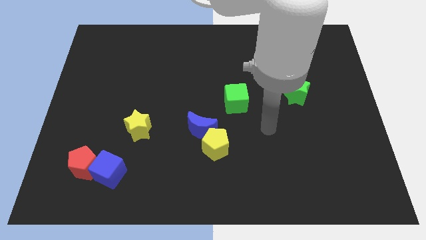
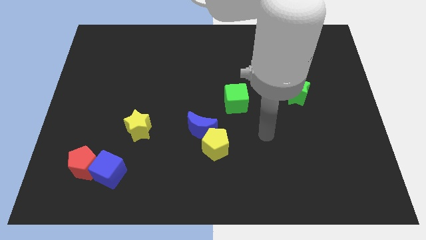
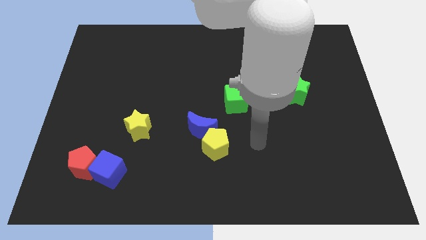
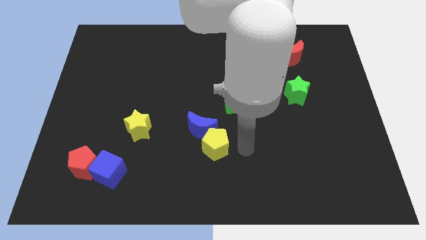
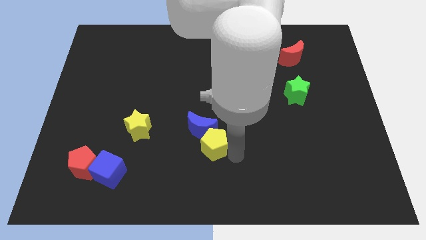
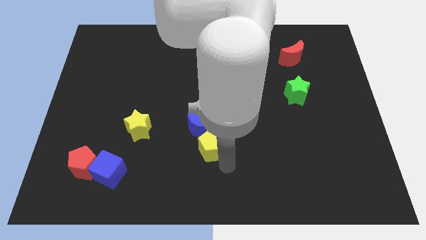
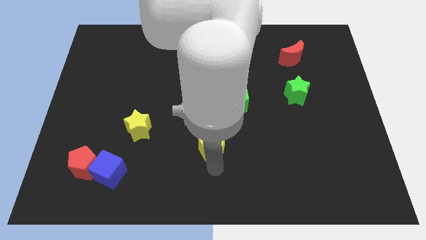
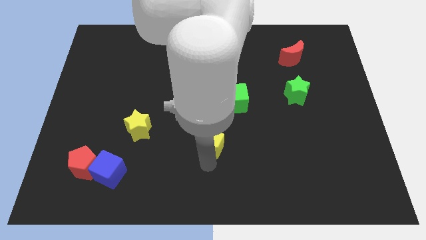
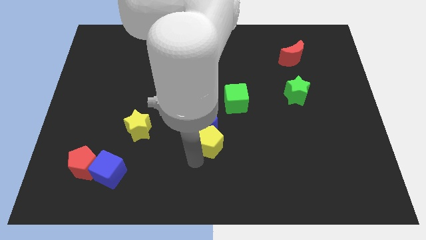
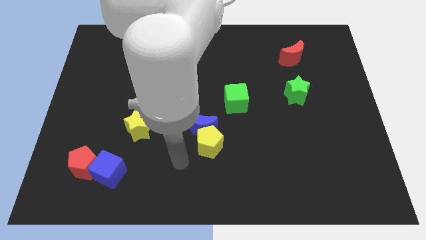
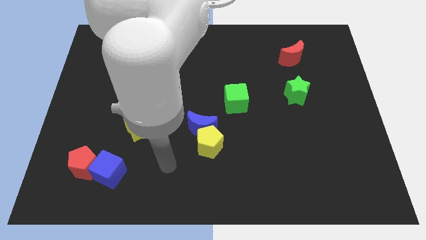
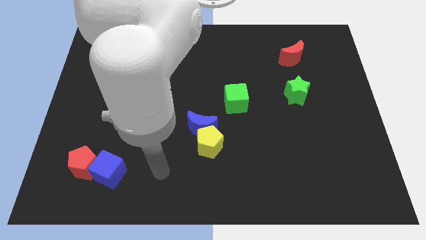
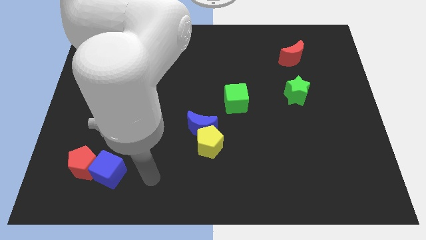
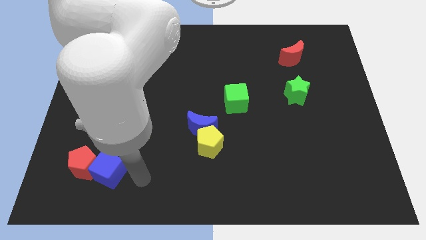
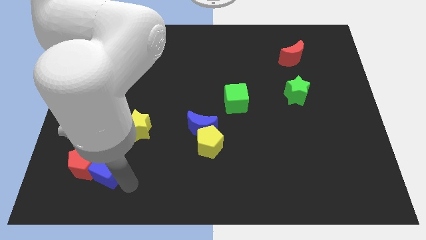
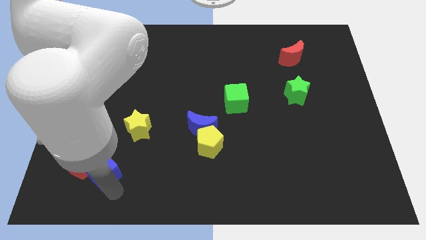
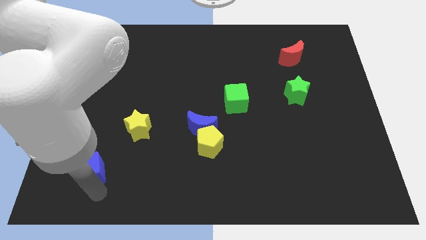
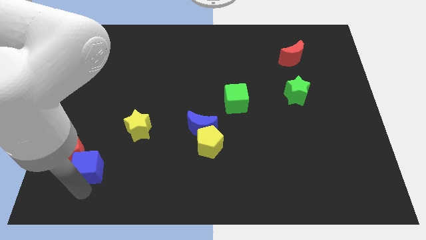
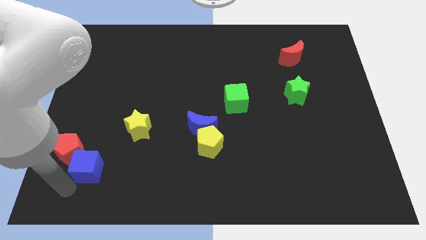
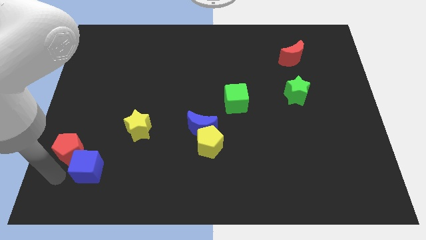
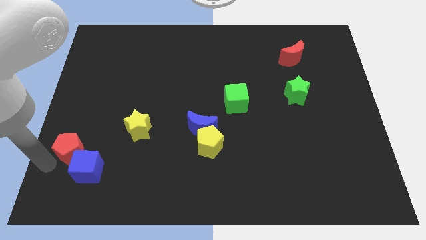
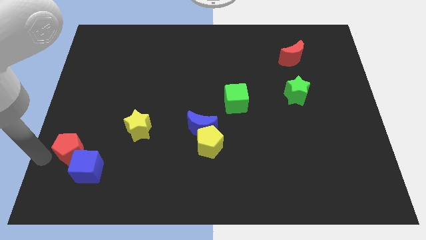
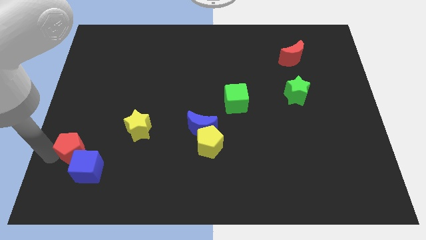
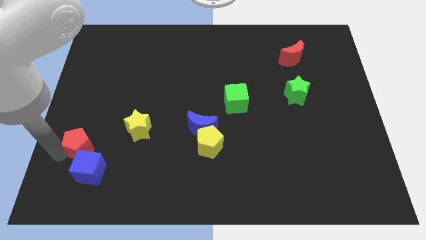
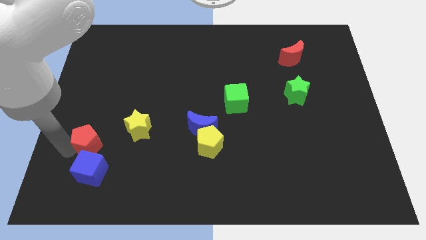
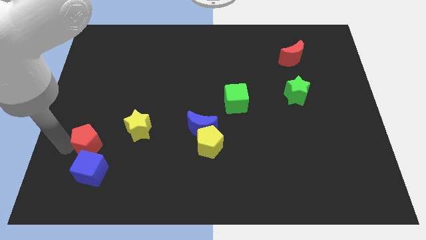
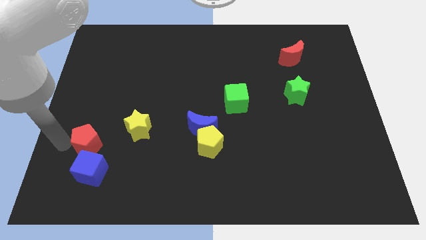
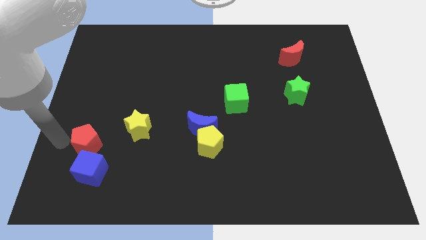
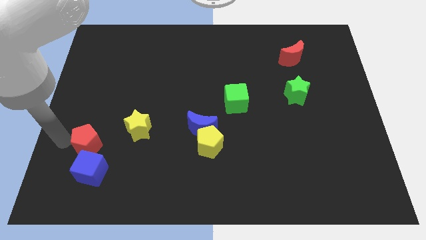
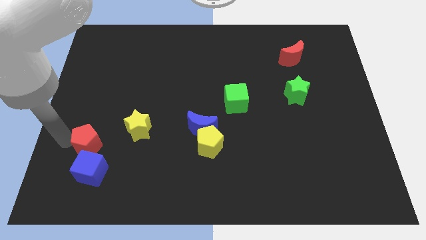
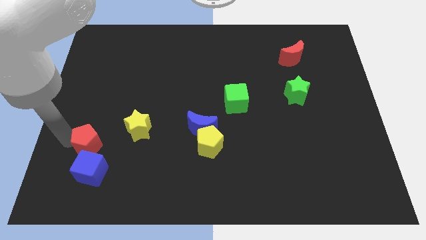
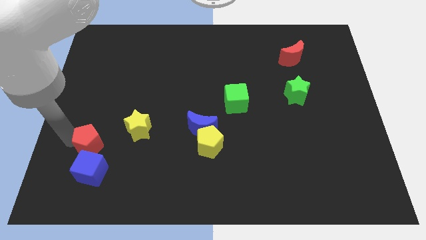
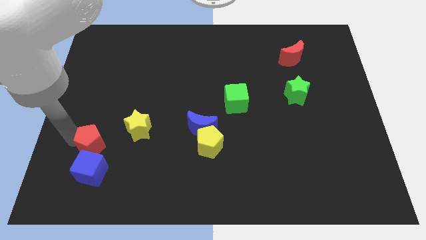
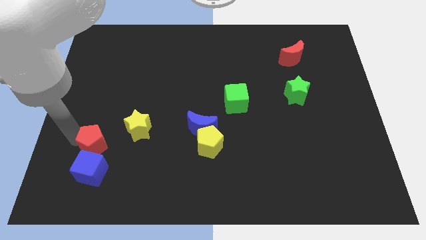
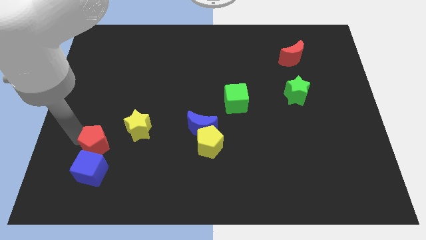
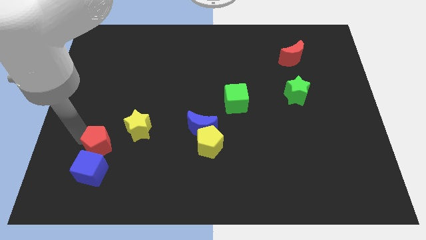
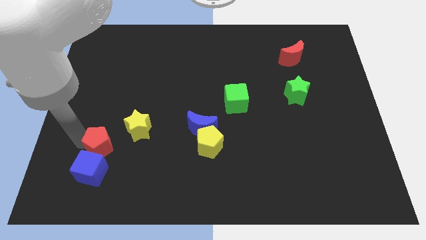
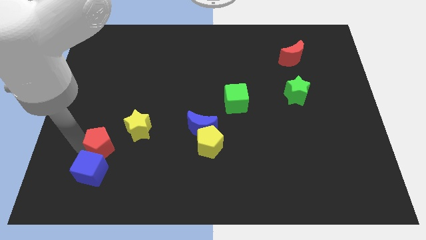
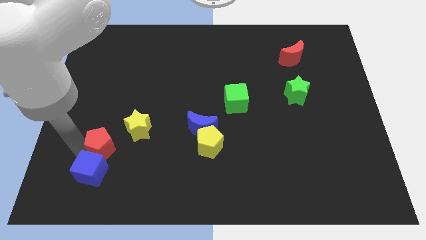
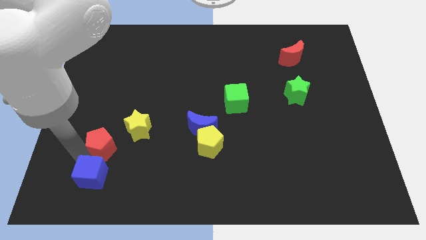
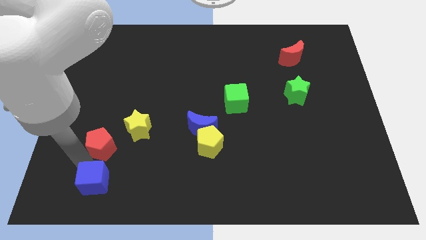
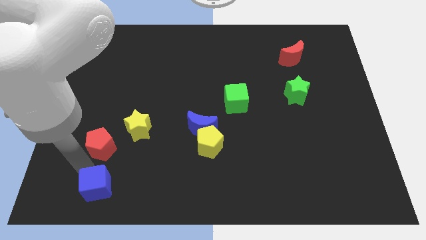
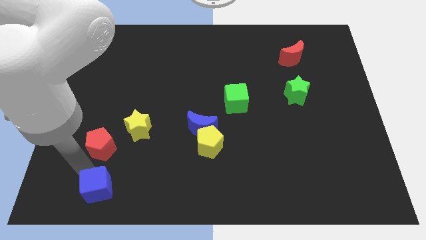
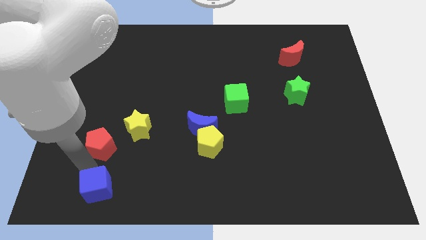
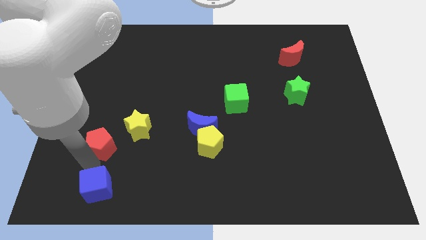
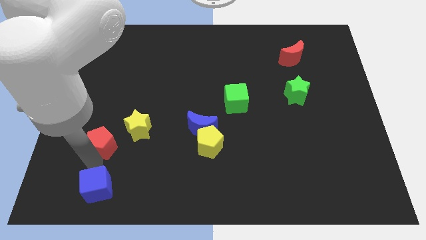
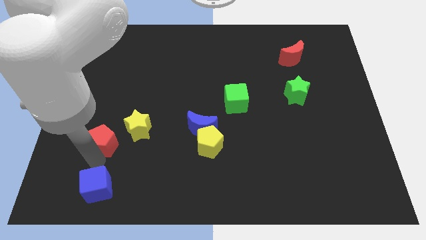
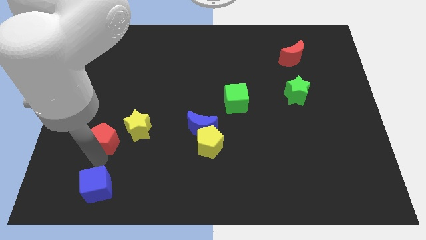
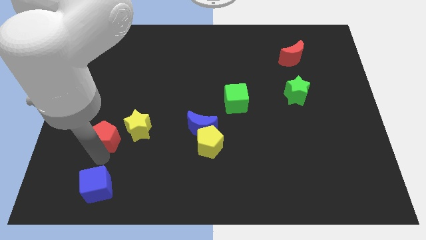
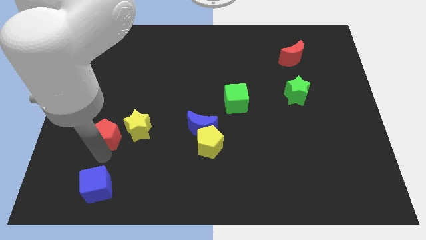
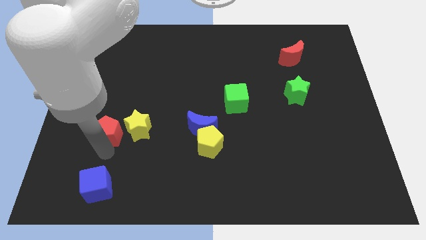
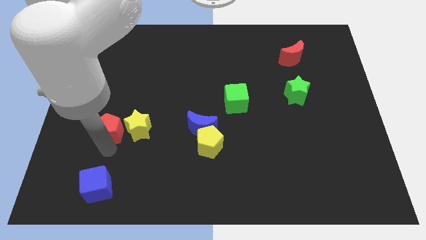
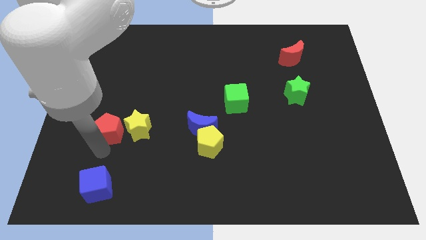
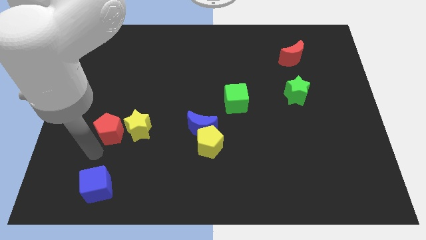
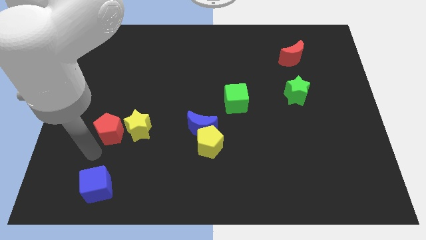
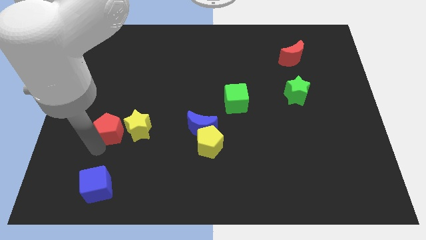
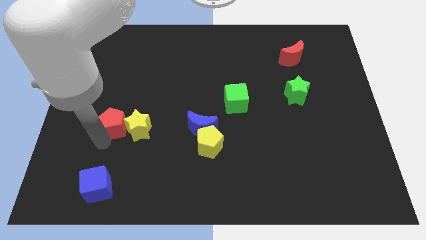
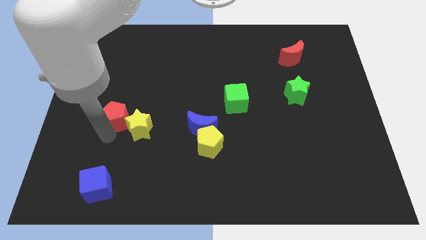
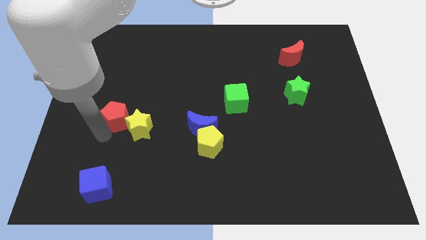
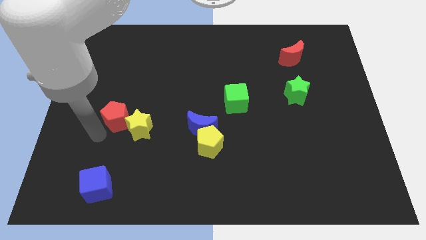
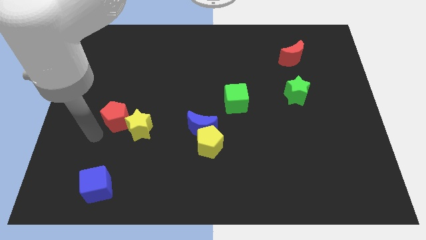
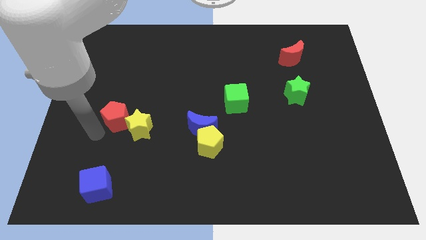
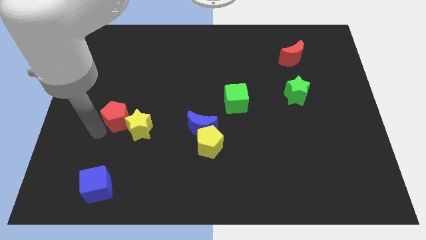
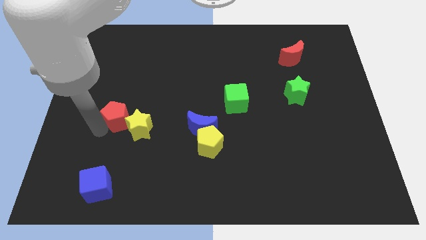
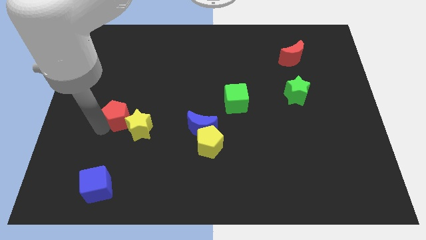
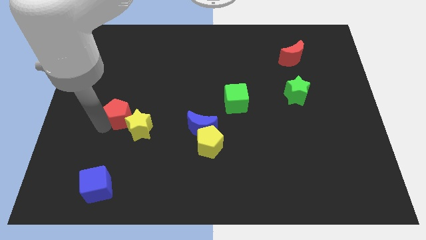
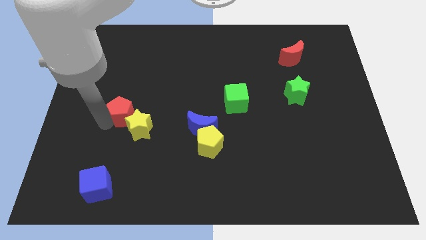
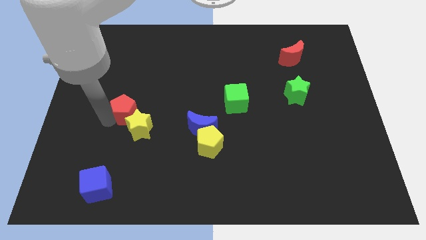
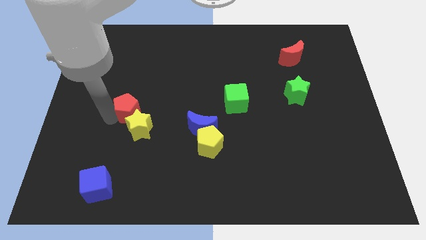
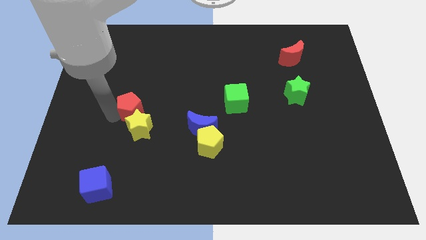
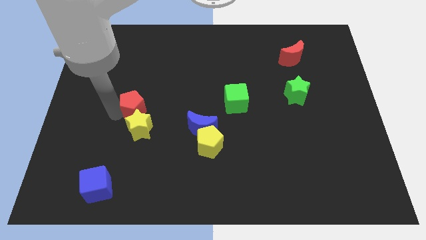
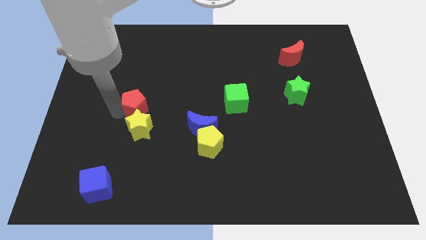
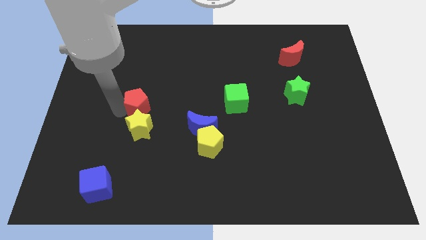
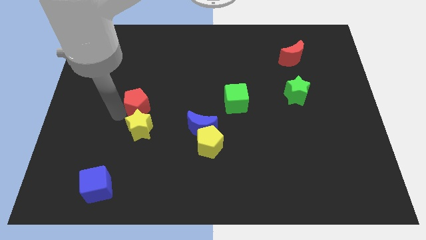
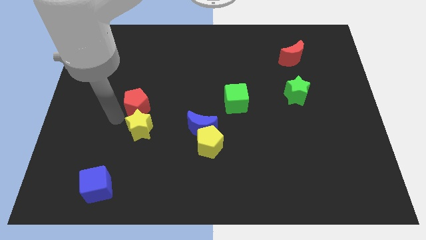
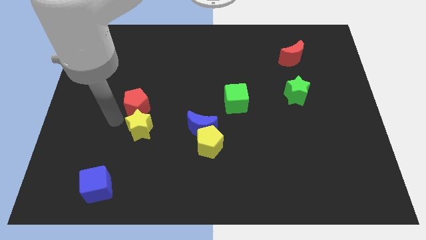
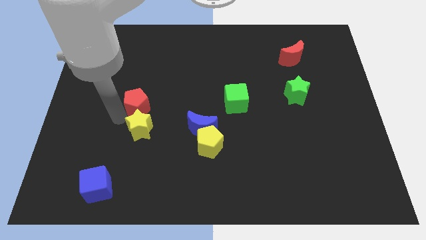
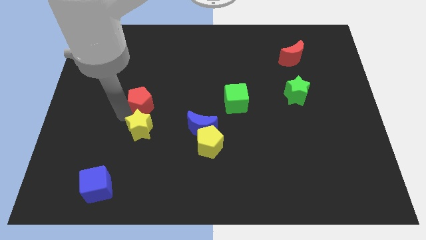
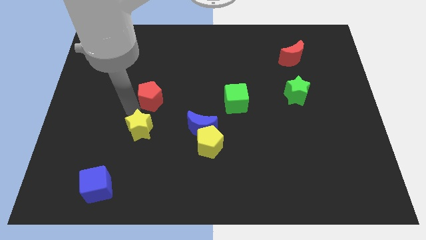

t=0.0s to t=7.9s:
move the red pentagon upwards and then right

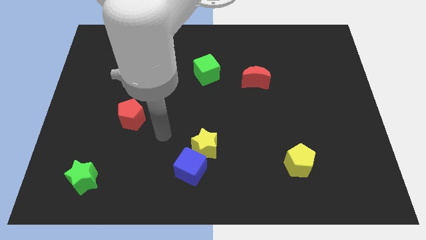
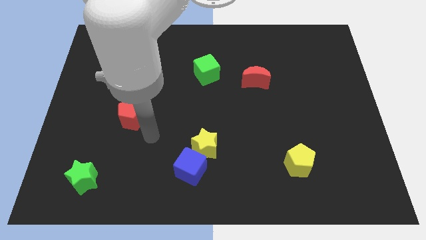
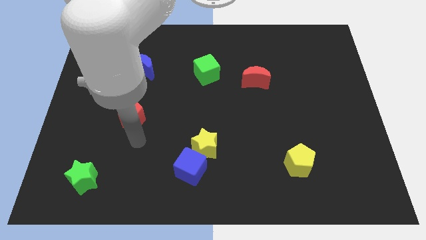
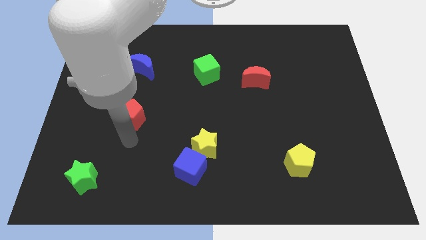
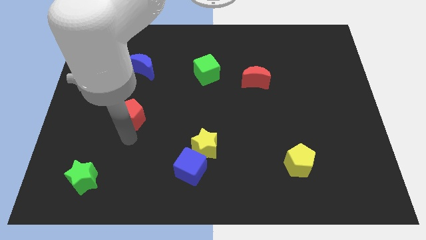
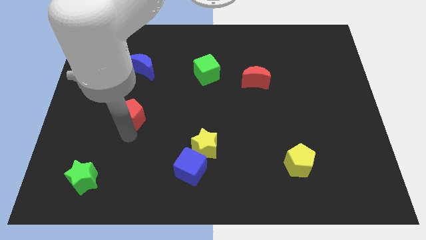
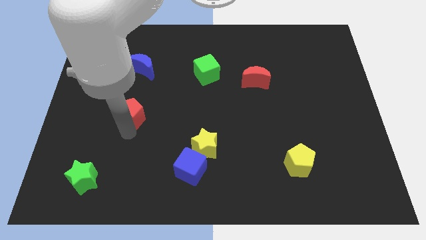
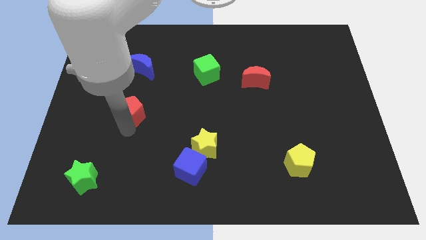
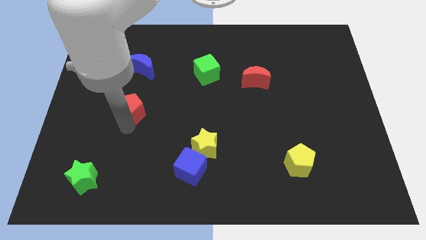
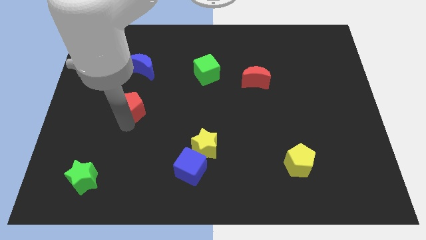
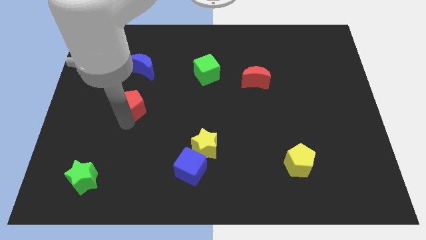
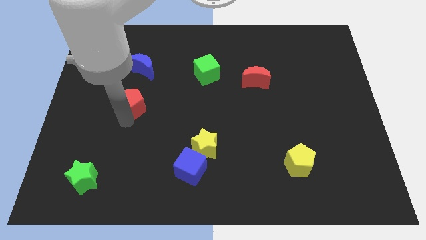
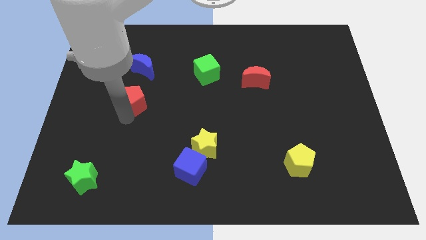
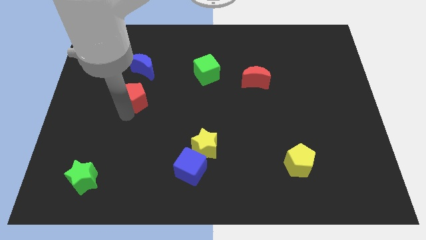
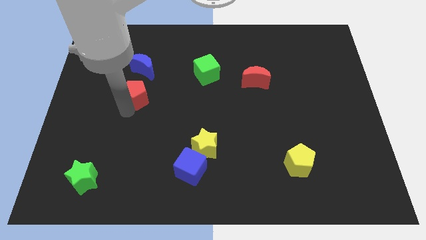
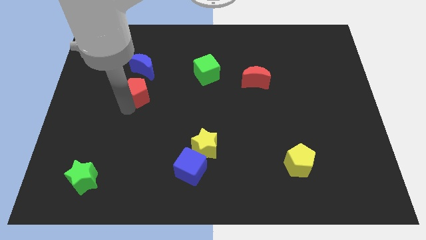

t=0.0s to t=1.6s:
push the red pentagon up a bit
